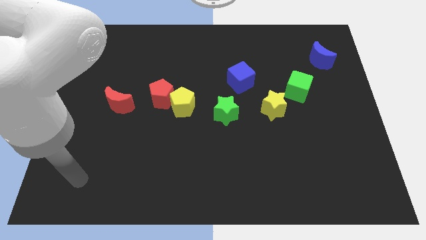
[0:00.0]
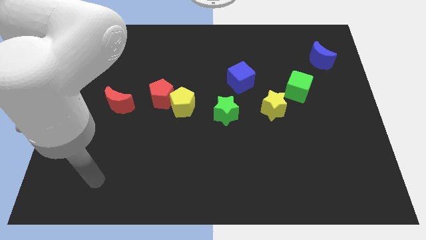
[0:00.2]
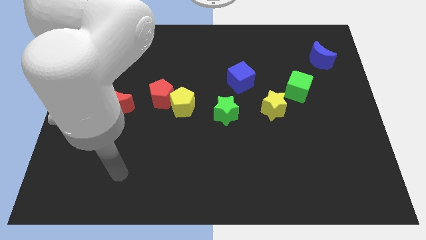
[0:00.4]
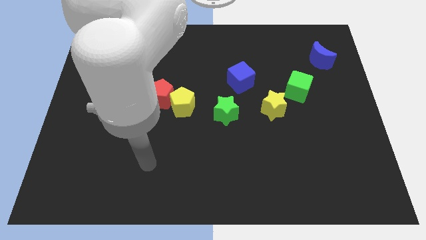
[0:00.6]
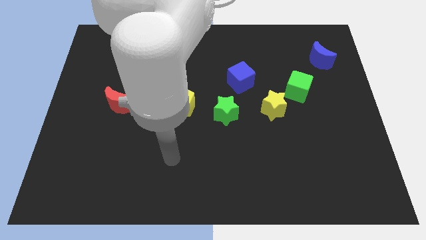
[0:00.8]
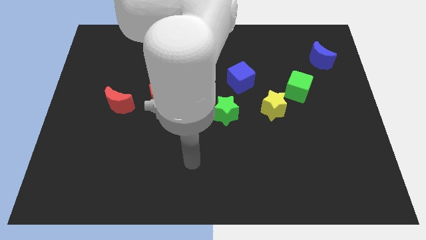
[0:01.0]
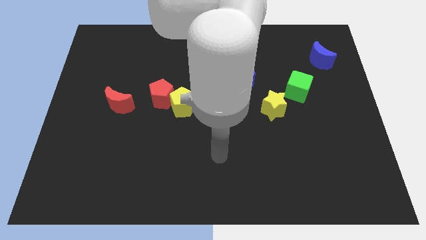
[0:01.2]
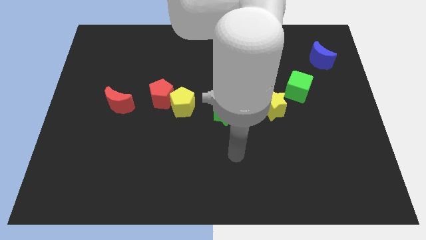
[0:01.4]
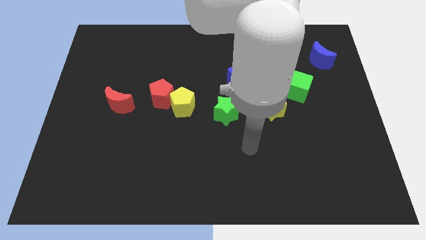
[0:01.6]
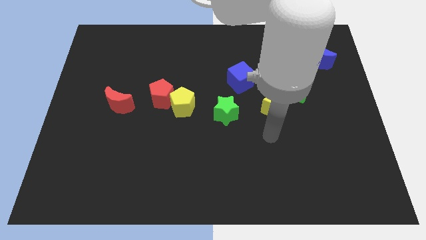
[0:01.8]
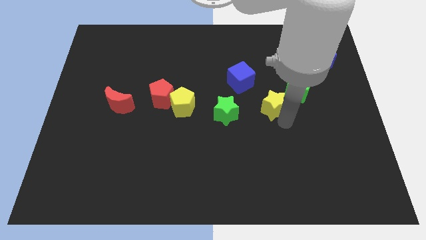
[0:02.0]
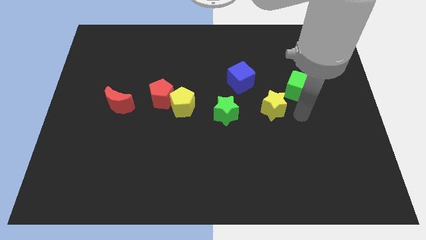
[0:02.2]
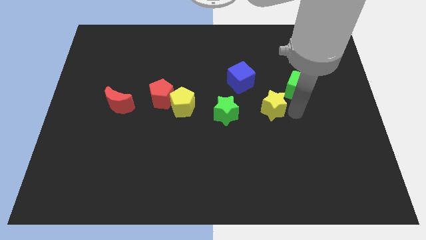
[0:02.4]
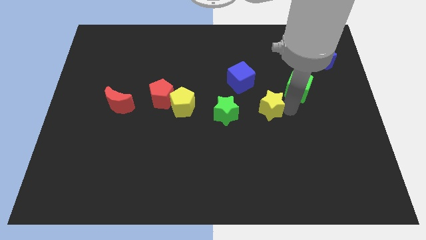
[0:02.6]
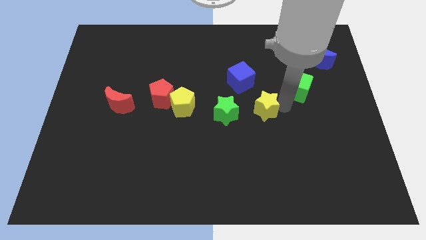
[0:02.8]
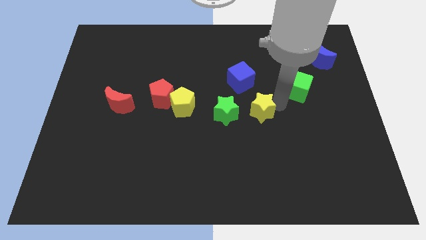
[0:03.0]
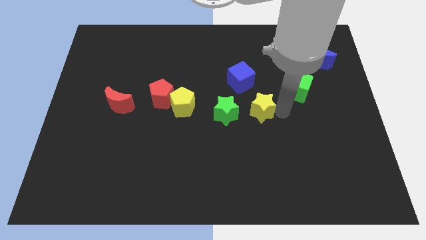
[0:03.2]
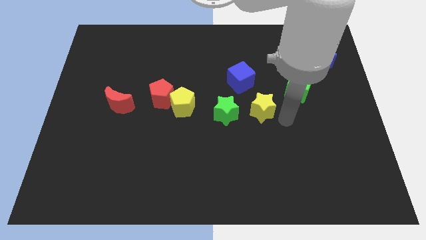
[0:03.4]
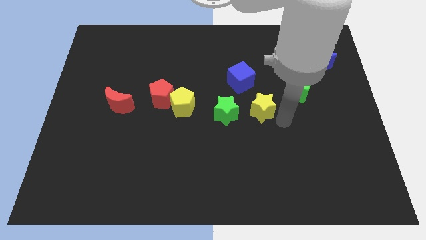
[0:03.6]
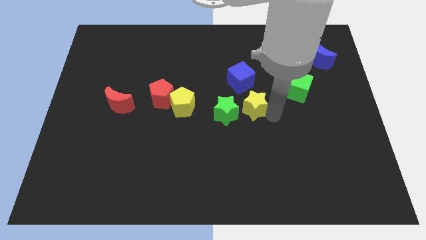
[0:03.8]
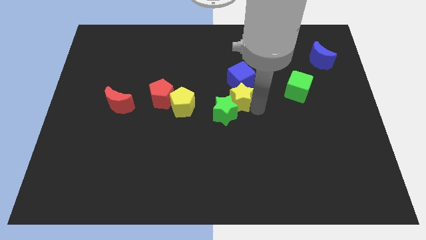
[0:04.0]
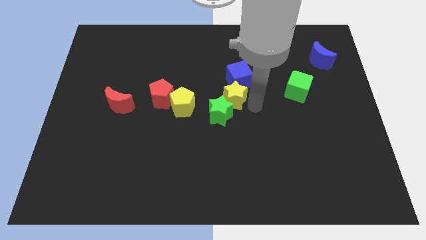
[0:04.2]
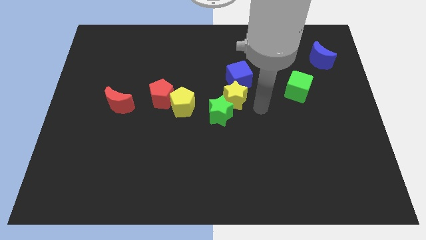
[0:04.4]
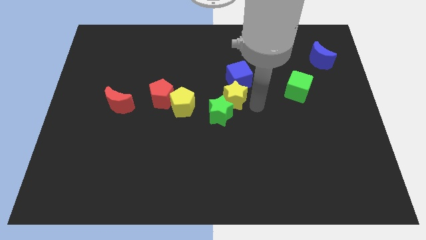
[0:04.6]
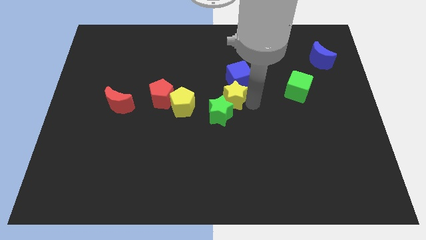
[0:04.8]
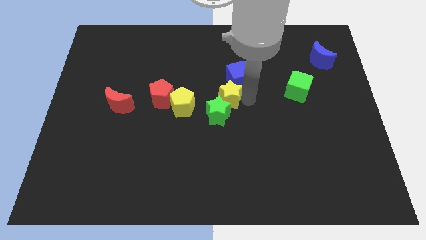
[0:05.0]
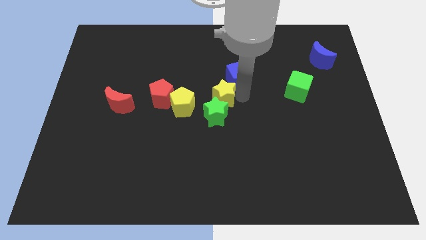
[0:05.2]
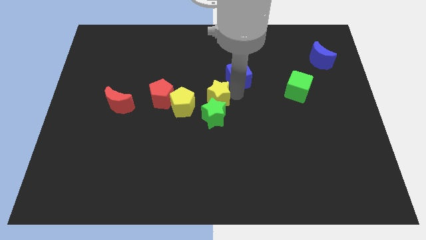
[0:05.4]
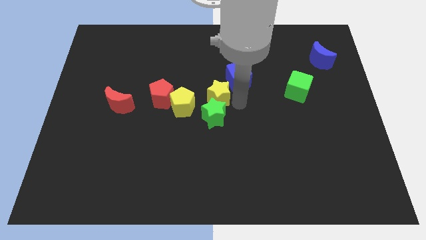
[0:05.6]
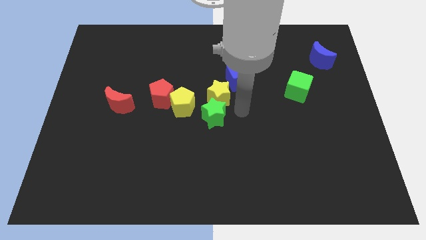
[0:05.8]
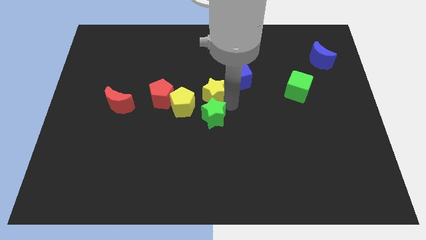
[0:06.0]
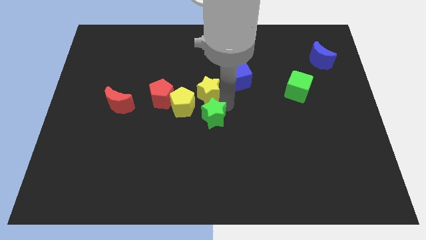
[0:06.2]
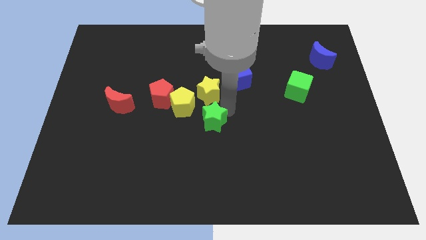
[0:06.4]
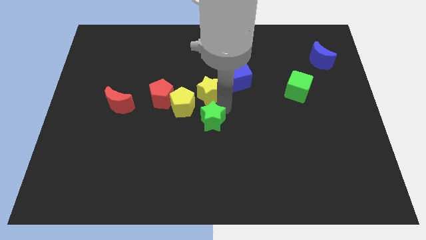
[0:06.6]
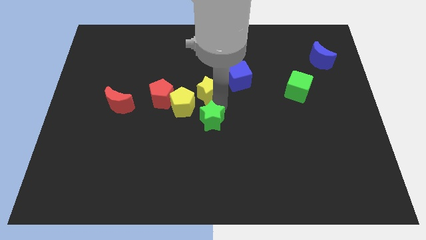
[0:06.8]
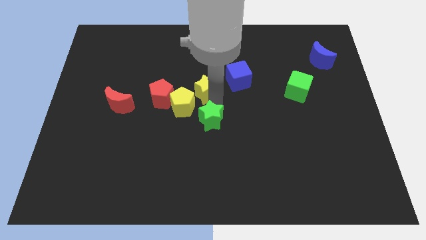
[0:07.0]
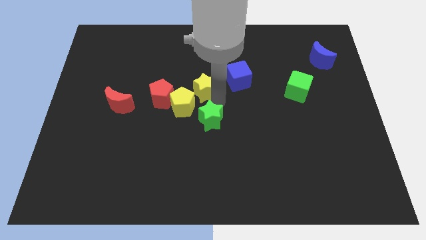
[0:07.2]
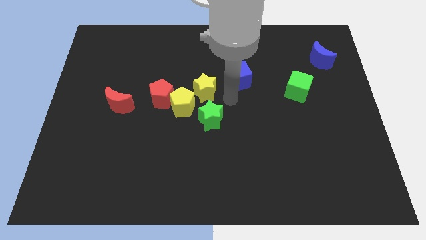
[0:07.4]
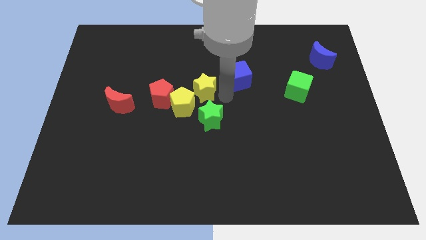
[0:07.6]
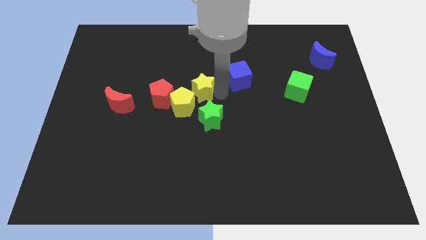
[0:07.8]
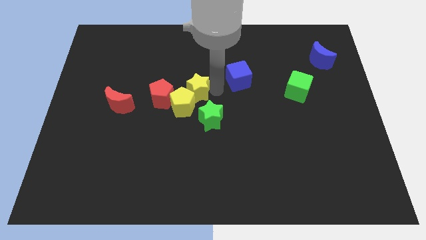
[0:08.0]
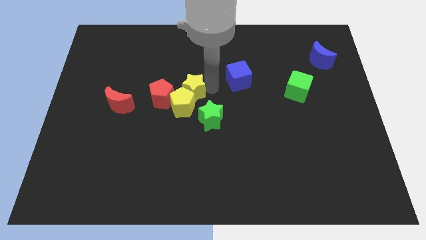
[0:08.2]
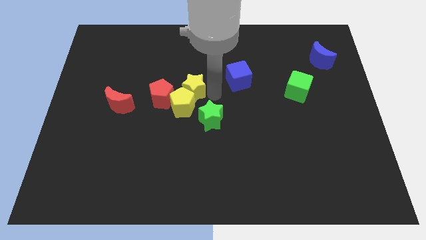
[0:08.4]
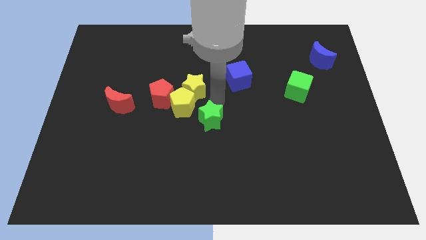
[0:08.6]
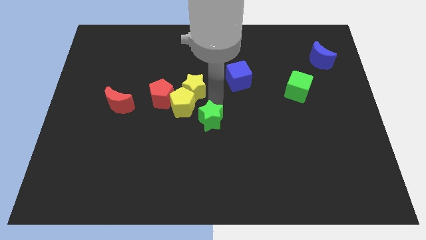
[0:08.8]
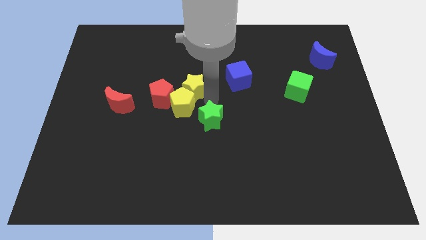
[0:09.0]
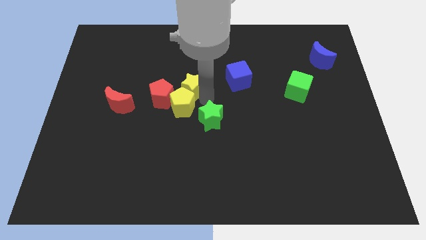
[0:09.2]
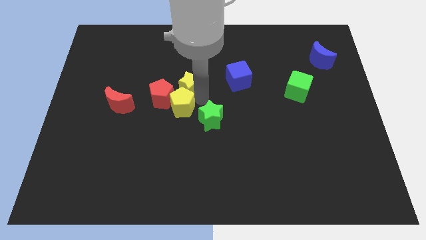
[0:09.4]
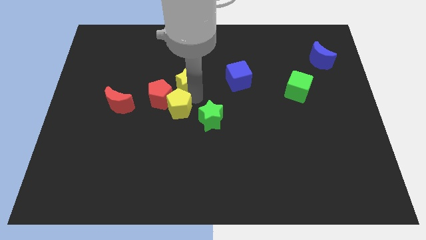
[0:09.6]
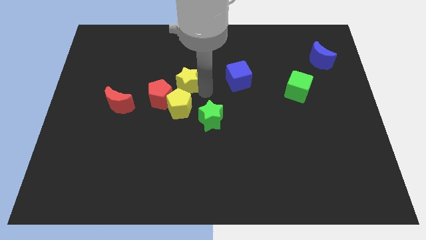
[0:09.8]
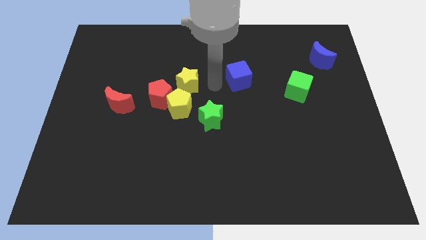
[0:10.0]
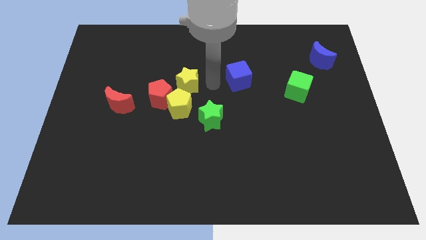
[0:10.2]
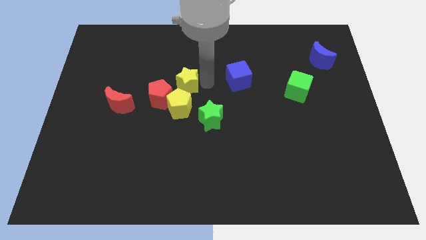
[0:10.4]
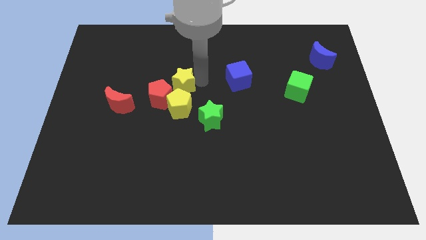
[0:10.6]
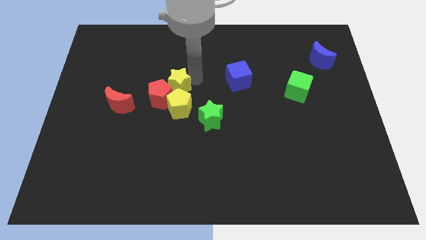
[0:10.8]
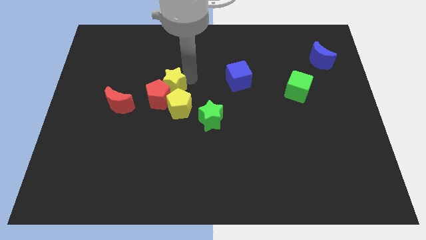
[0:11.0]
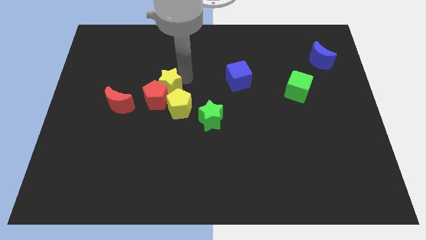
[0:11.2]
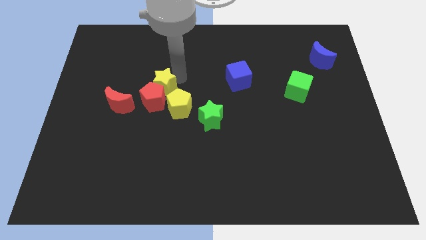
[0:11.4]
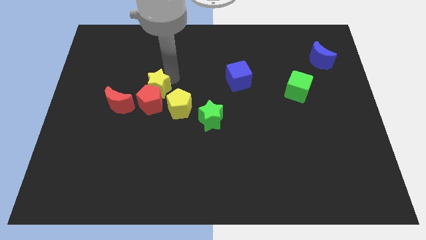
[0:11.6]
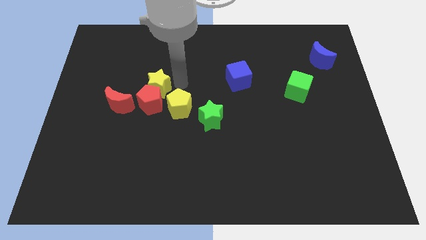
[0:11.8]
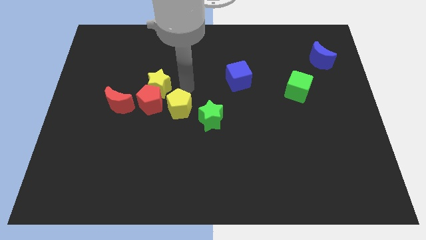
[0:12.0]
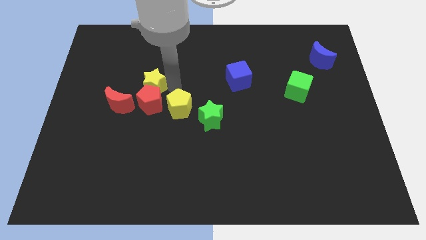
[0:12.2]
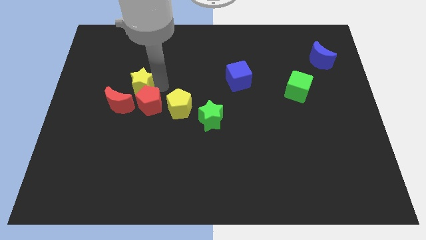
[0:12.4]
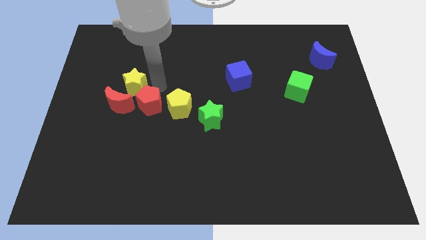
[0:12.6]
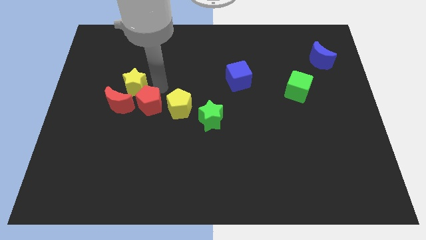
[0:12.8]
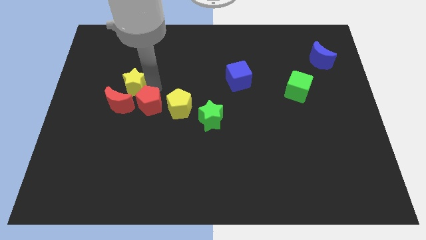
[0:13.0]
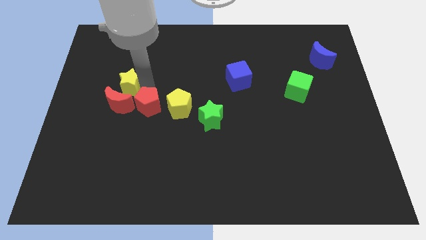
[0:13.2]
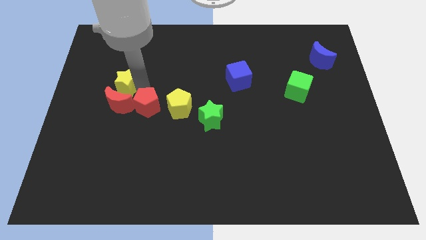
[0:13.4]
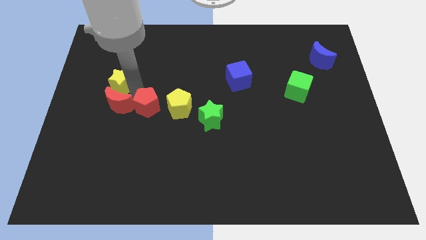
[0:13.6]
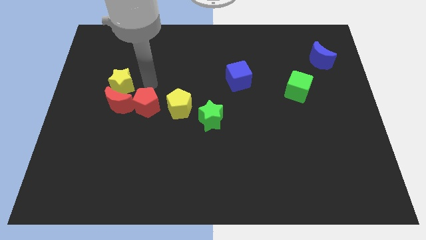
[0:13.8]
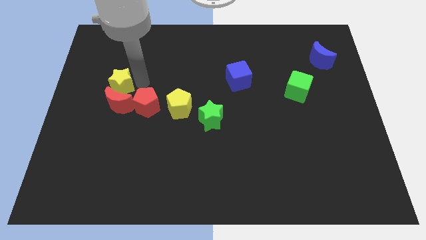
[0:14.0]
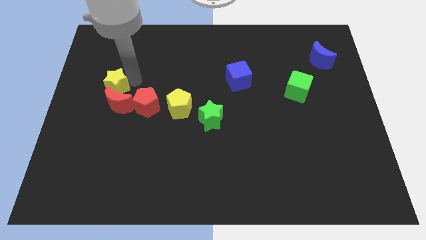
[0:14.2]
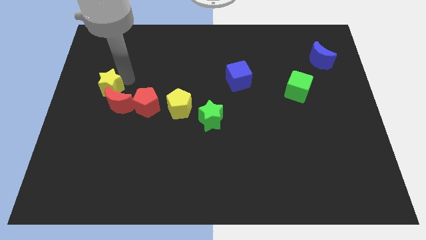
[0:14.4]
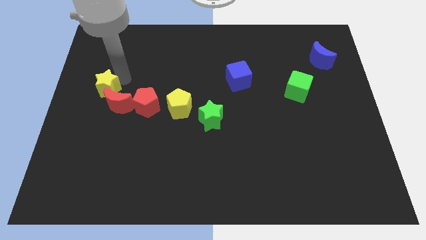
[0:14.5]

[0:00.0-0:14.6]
put the yellow star to the center left
